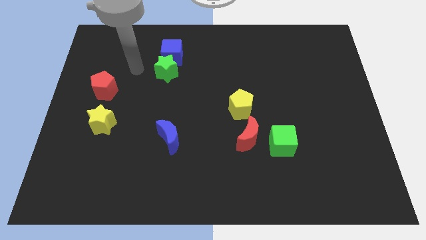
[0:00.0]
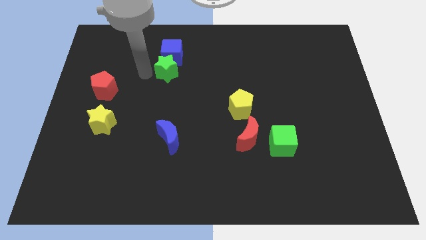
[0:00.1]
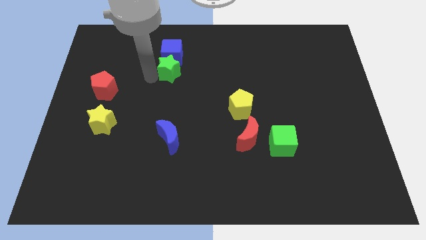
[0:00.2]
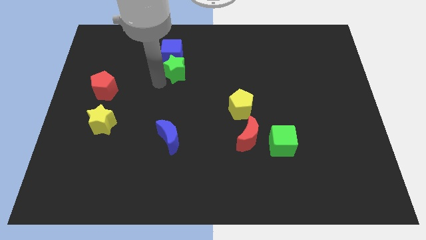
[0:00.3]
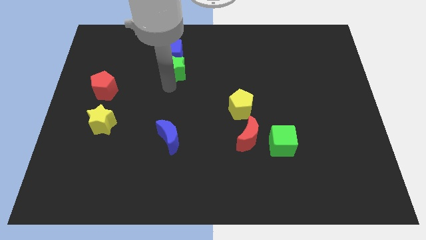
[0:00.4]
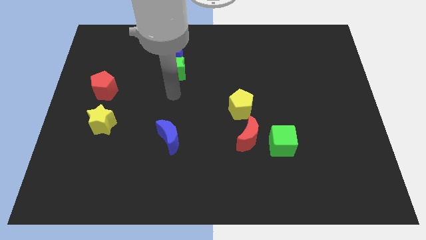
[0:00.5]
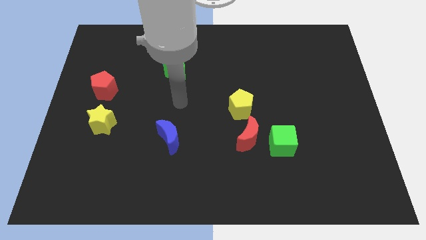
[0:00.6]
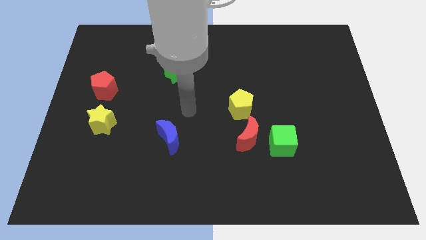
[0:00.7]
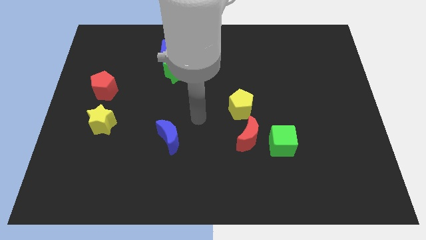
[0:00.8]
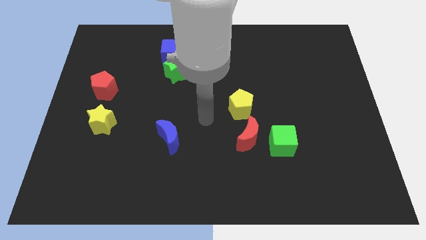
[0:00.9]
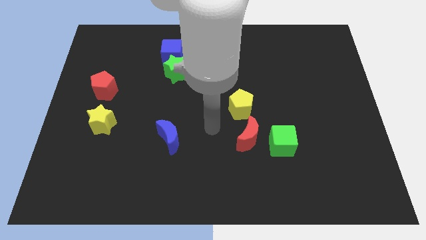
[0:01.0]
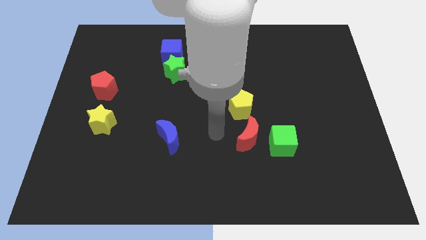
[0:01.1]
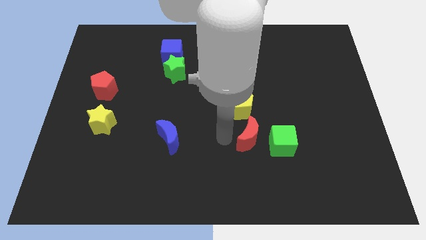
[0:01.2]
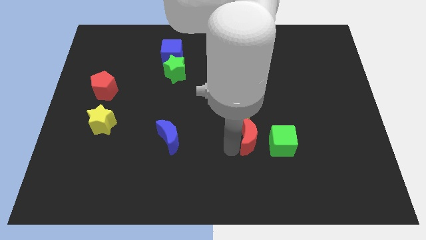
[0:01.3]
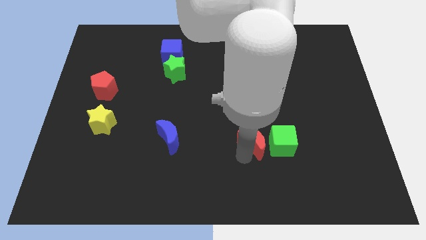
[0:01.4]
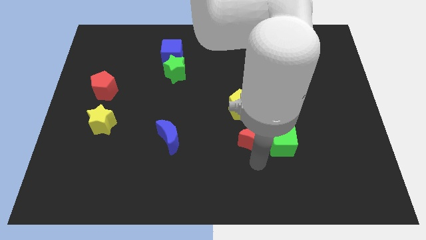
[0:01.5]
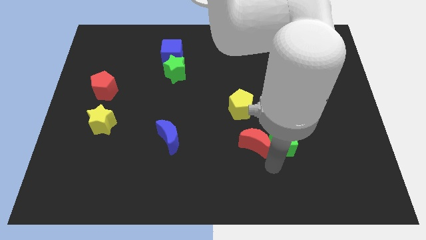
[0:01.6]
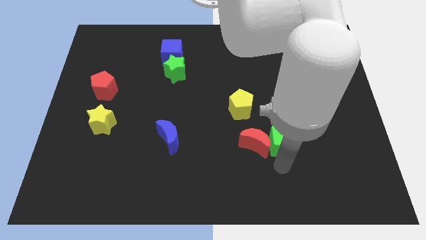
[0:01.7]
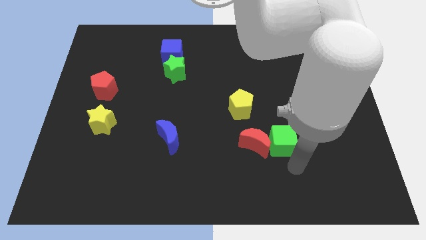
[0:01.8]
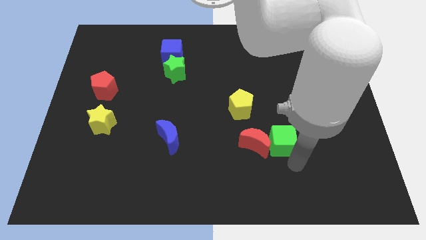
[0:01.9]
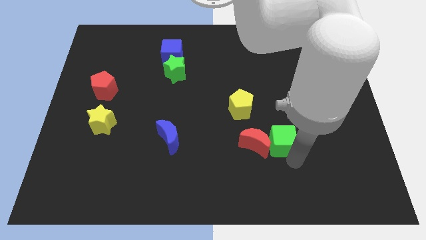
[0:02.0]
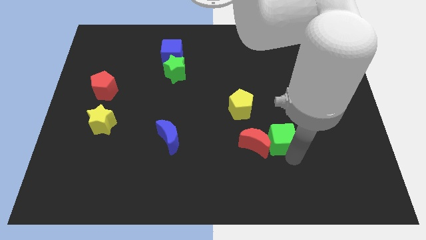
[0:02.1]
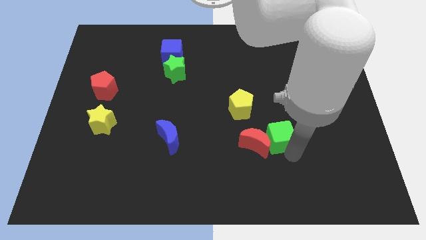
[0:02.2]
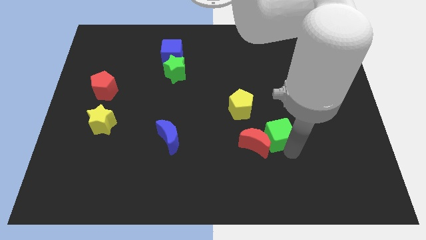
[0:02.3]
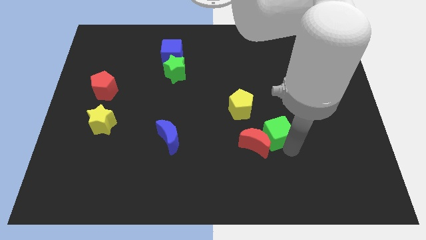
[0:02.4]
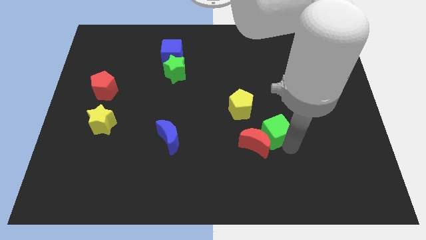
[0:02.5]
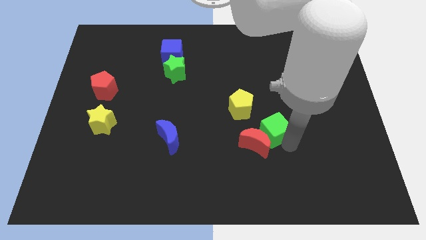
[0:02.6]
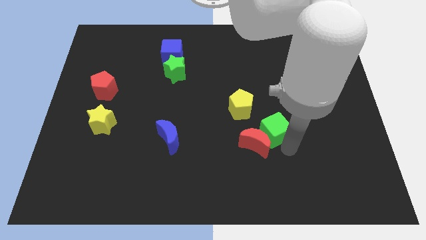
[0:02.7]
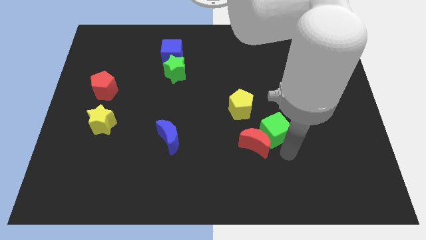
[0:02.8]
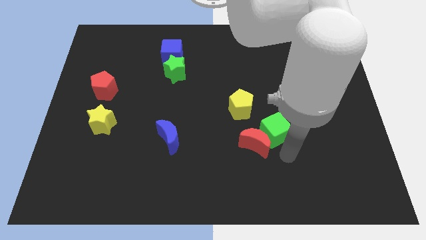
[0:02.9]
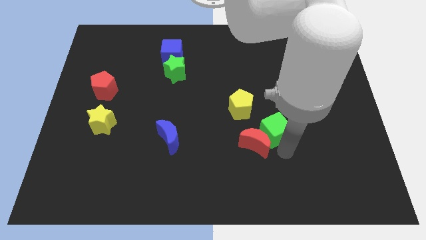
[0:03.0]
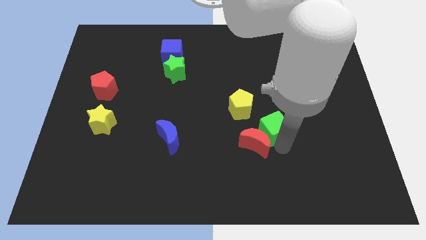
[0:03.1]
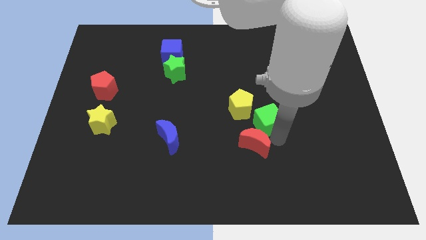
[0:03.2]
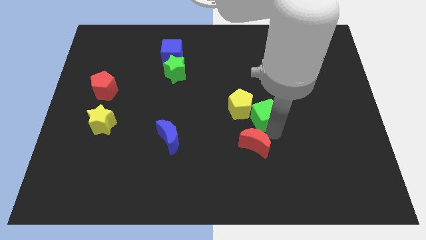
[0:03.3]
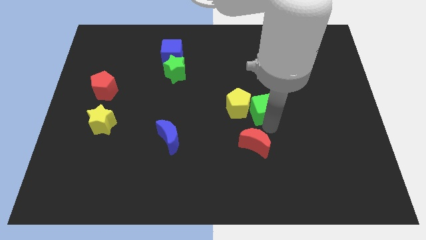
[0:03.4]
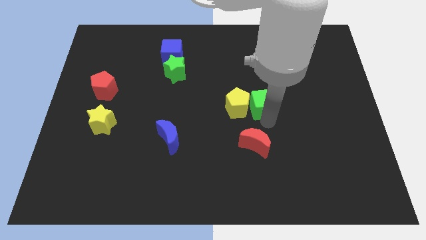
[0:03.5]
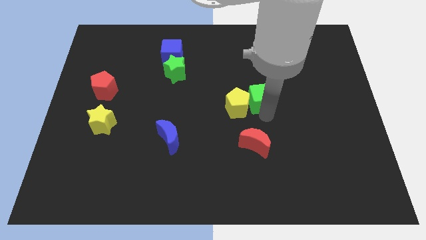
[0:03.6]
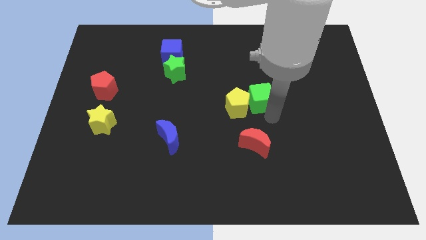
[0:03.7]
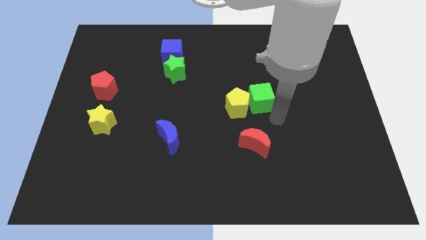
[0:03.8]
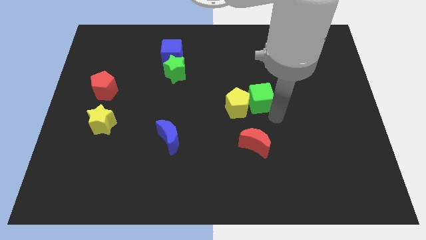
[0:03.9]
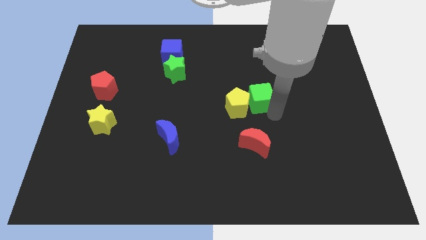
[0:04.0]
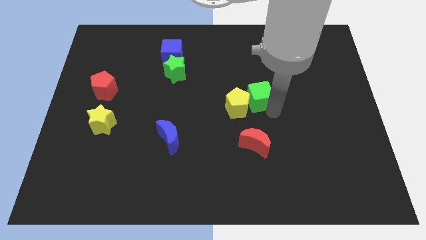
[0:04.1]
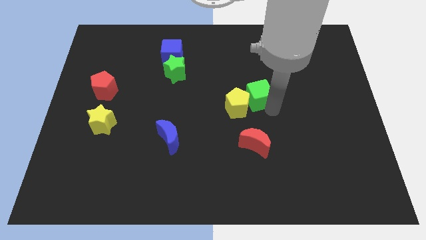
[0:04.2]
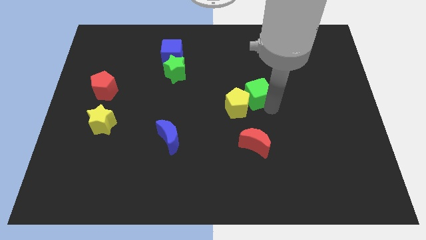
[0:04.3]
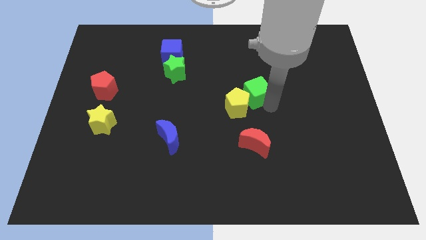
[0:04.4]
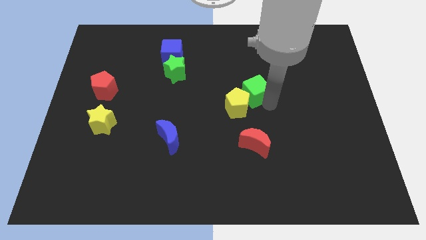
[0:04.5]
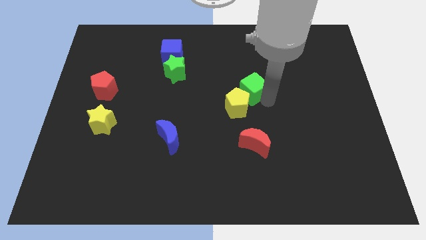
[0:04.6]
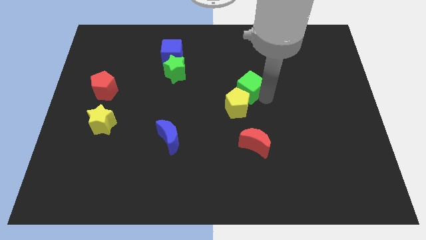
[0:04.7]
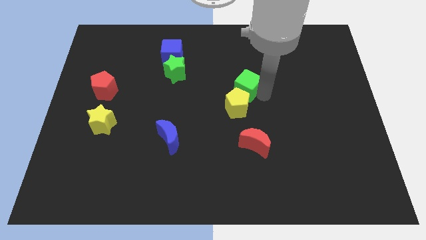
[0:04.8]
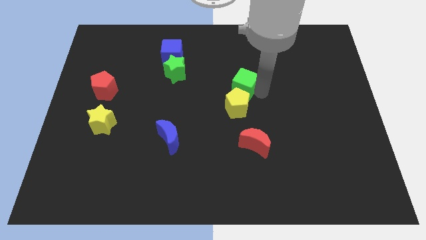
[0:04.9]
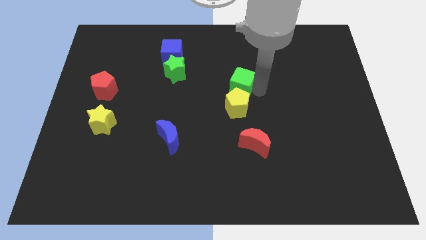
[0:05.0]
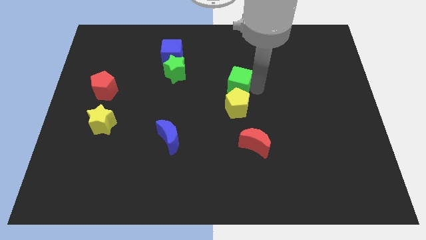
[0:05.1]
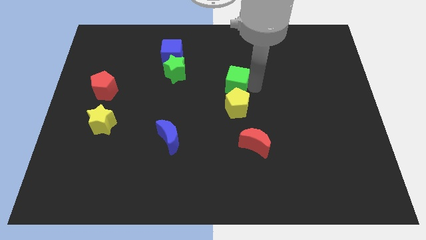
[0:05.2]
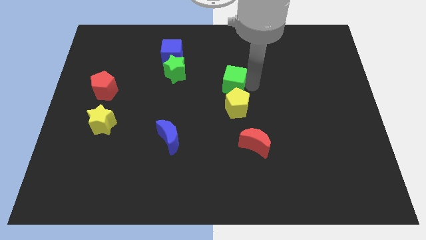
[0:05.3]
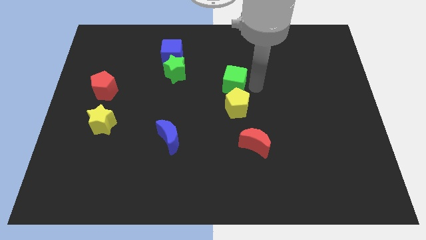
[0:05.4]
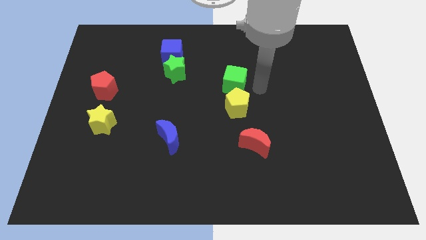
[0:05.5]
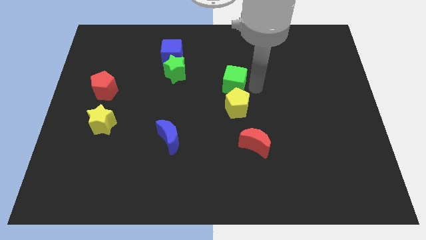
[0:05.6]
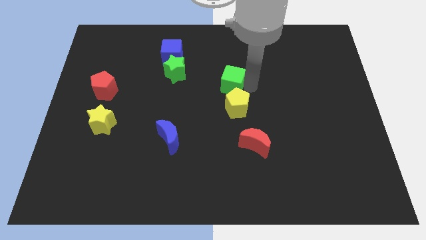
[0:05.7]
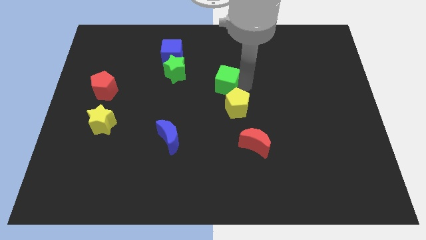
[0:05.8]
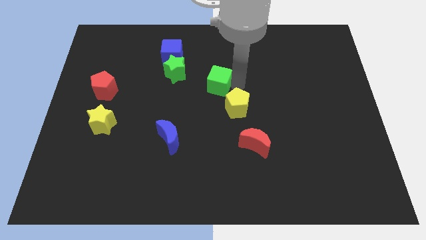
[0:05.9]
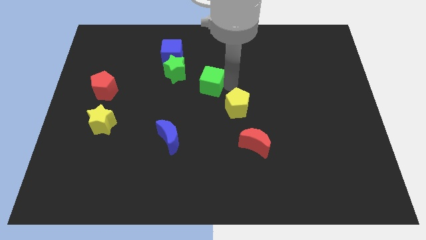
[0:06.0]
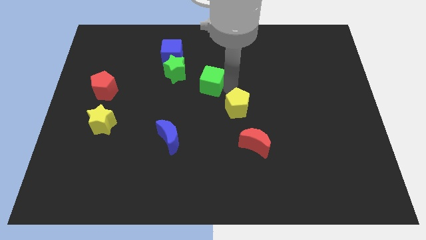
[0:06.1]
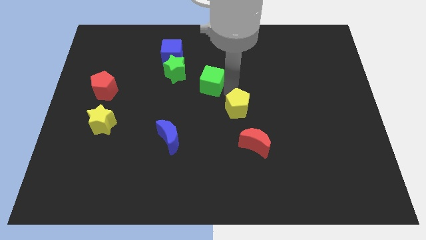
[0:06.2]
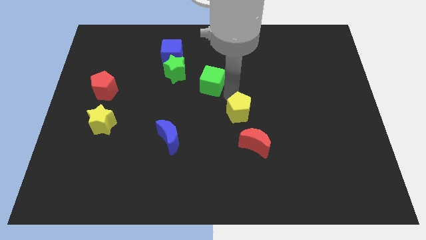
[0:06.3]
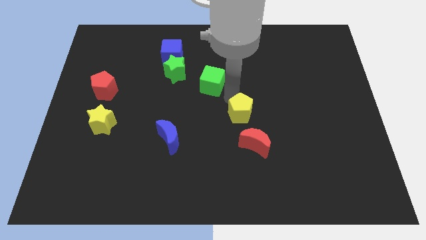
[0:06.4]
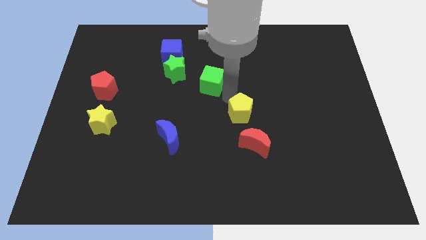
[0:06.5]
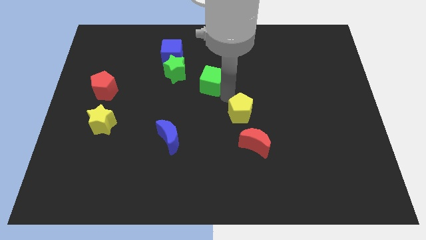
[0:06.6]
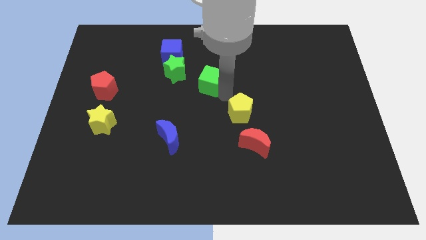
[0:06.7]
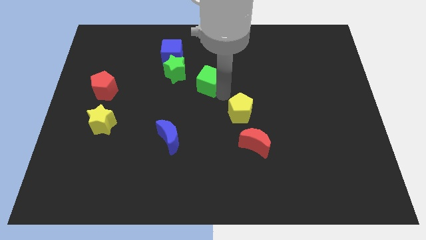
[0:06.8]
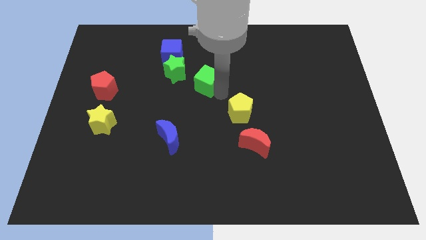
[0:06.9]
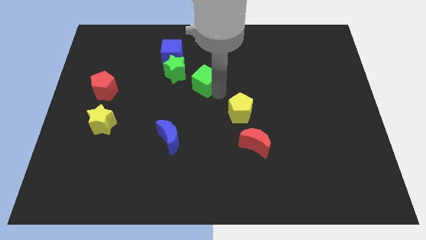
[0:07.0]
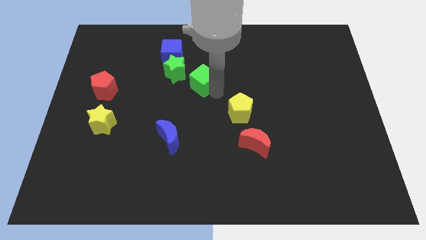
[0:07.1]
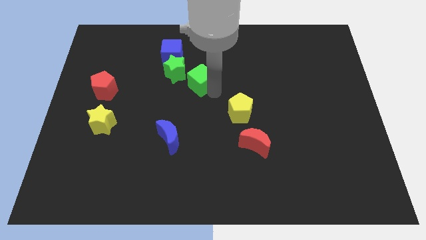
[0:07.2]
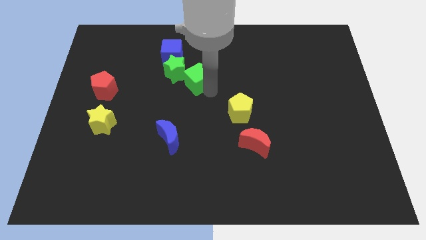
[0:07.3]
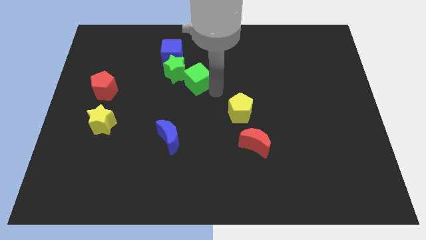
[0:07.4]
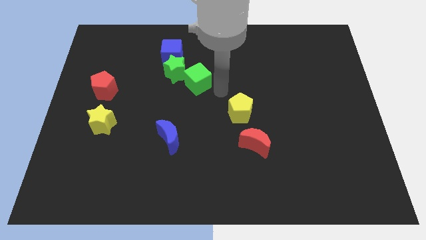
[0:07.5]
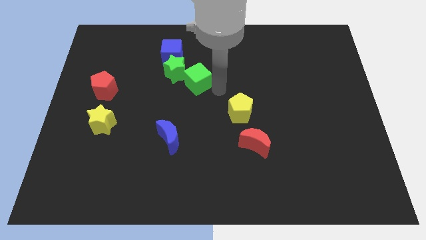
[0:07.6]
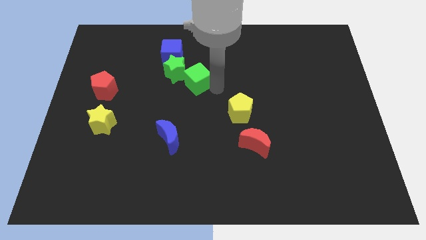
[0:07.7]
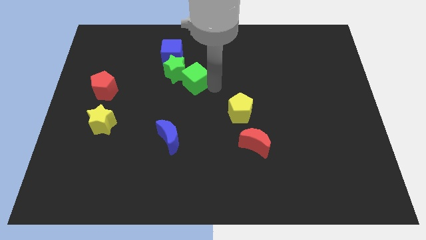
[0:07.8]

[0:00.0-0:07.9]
move the green cube next to the green star

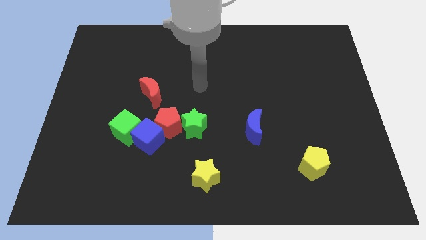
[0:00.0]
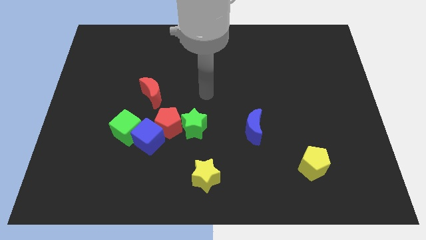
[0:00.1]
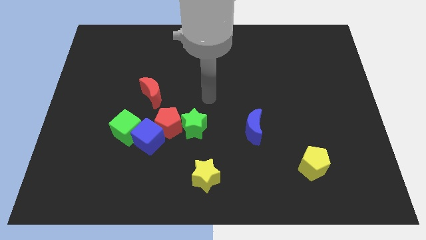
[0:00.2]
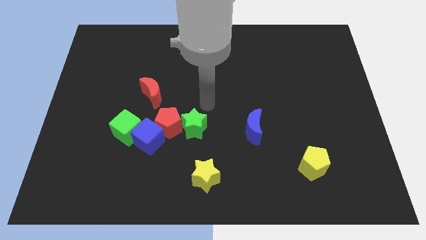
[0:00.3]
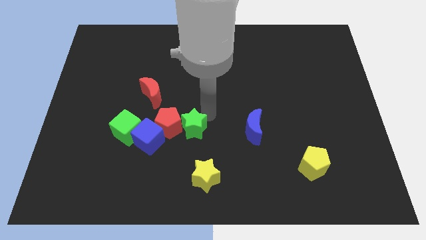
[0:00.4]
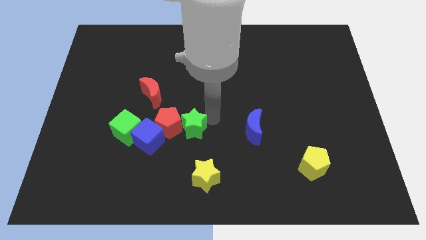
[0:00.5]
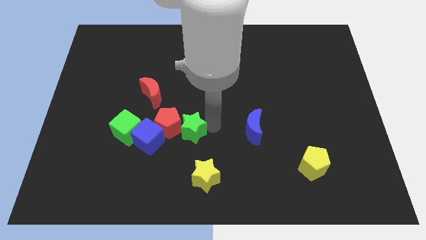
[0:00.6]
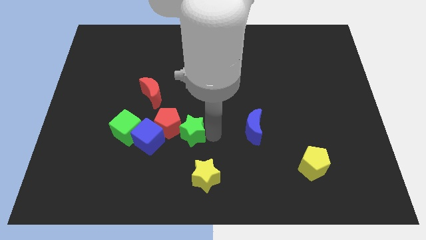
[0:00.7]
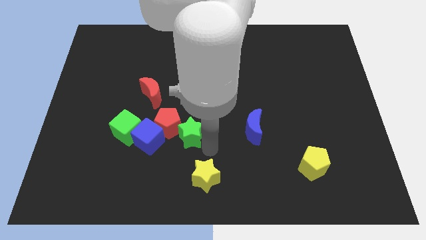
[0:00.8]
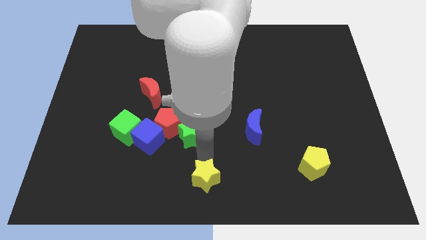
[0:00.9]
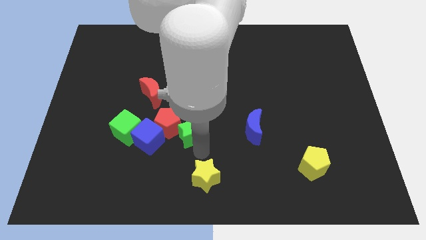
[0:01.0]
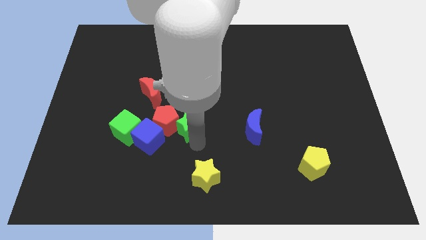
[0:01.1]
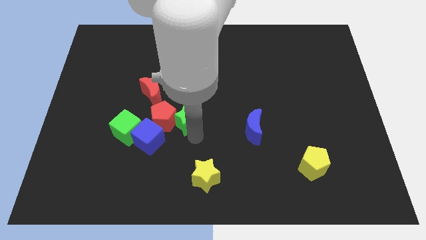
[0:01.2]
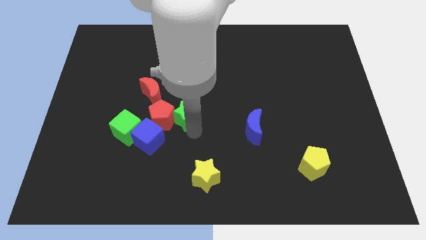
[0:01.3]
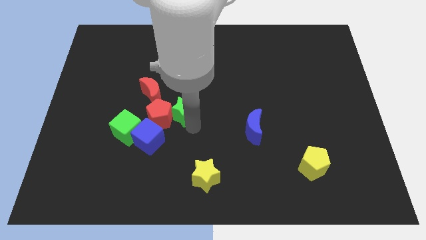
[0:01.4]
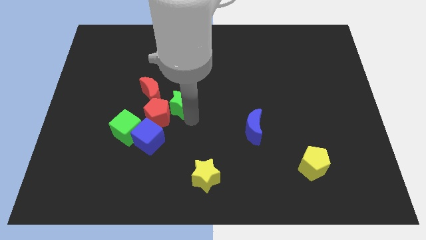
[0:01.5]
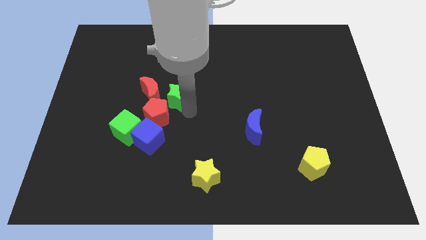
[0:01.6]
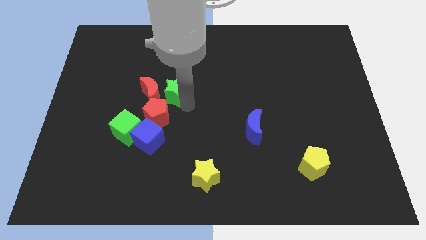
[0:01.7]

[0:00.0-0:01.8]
push the green star close to the red moon
